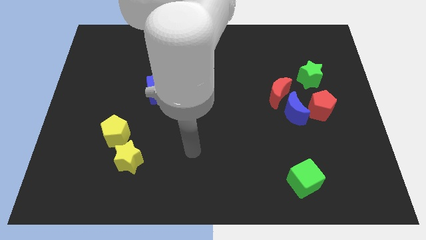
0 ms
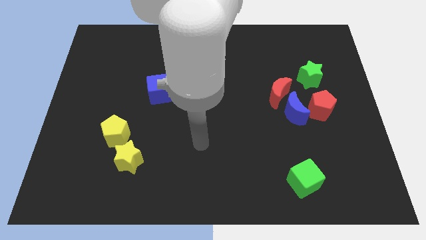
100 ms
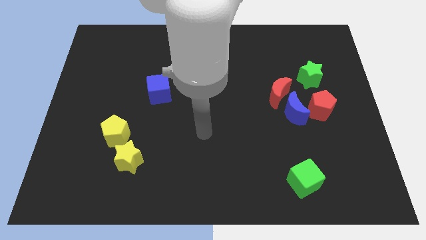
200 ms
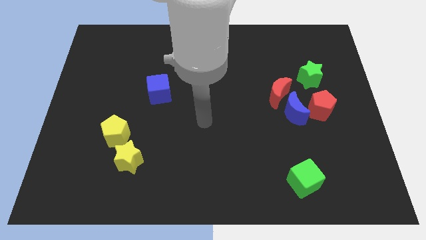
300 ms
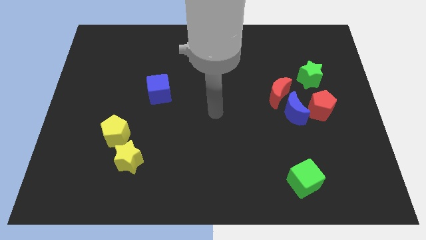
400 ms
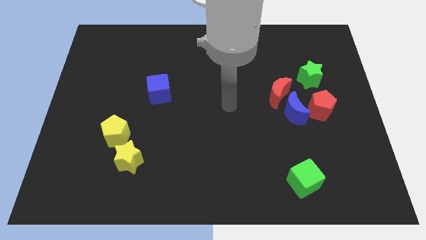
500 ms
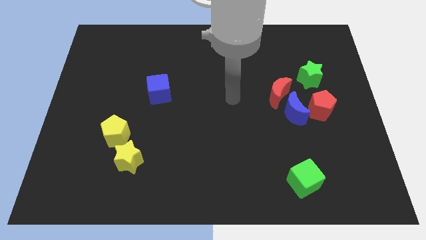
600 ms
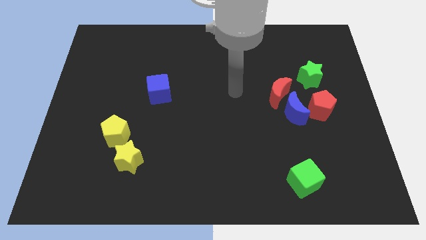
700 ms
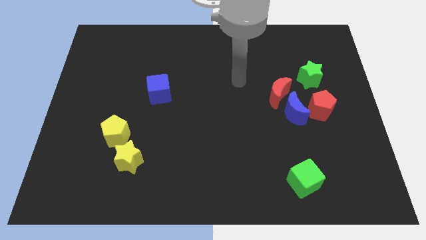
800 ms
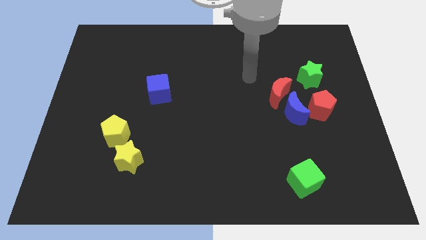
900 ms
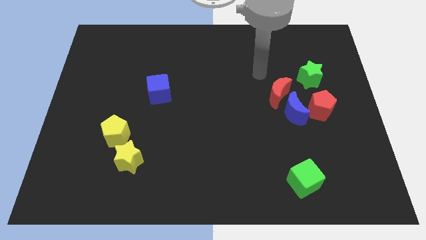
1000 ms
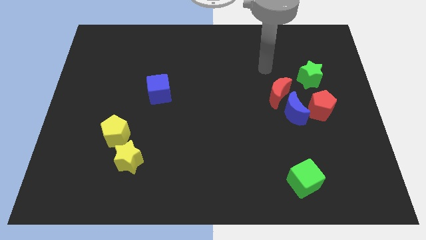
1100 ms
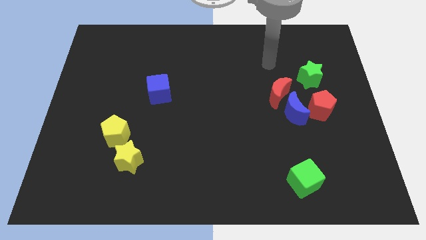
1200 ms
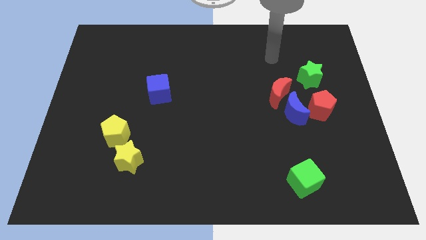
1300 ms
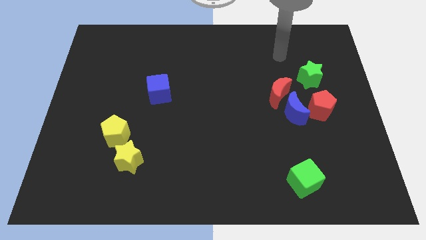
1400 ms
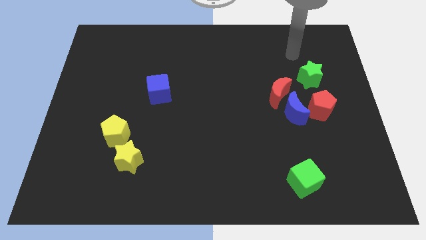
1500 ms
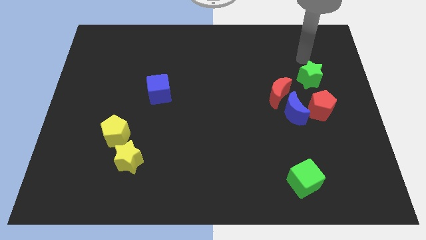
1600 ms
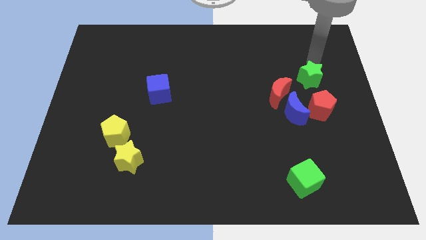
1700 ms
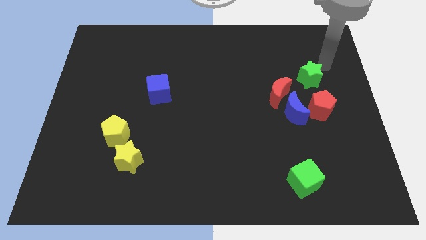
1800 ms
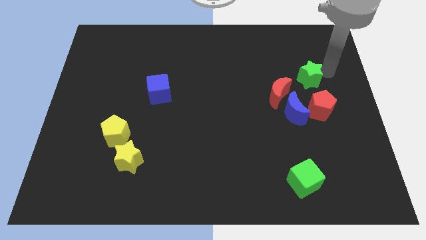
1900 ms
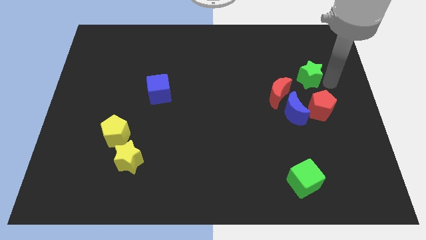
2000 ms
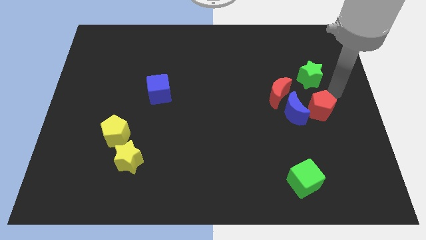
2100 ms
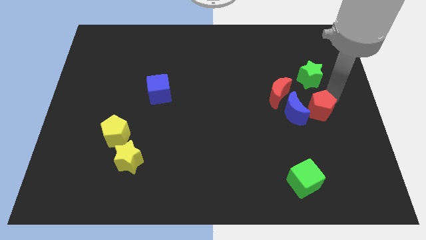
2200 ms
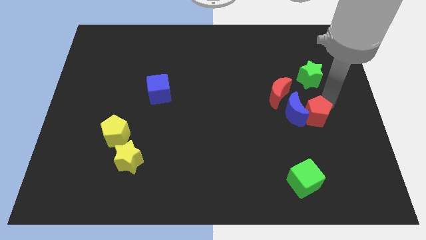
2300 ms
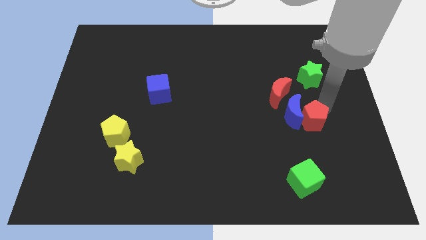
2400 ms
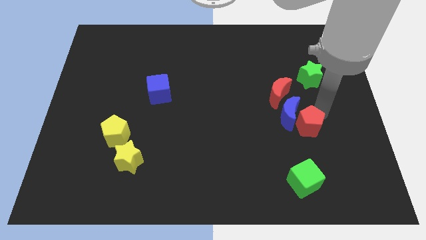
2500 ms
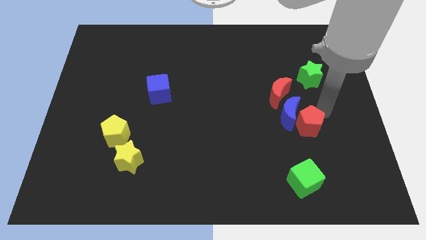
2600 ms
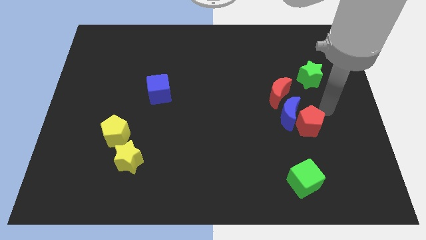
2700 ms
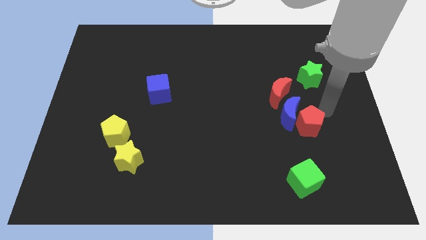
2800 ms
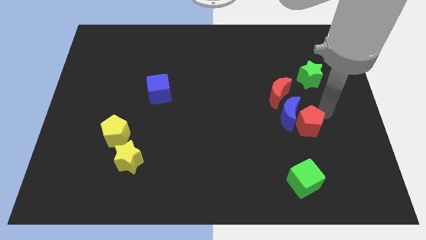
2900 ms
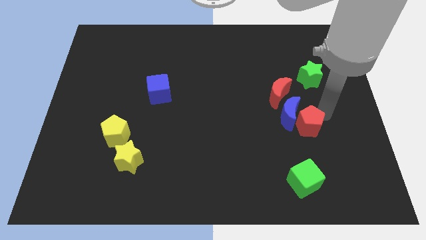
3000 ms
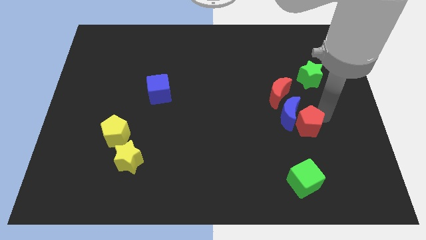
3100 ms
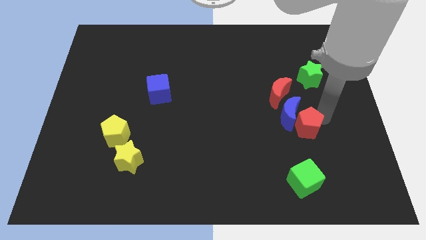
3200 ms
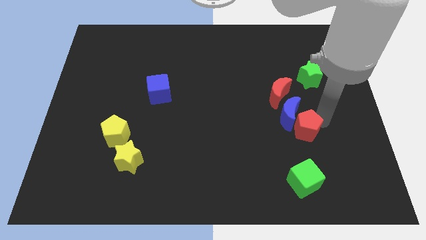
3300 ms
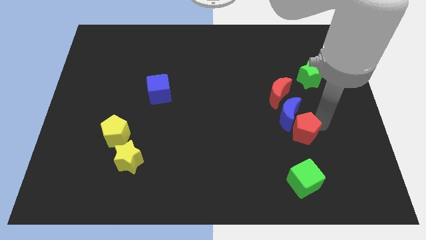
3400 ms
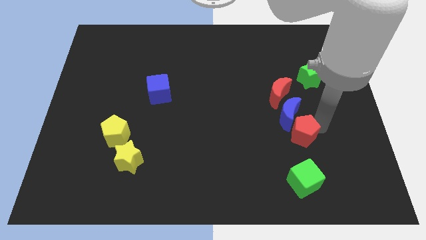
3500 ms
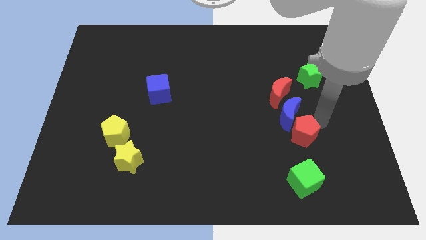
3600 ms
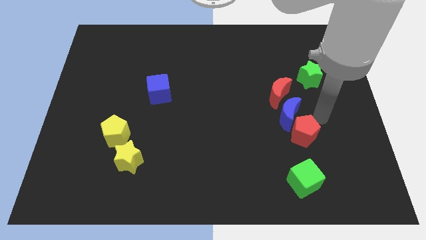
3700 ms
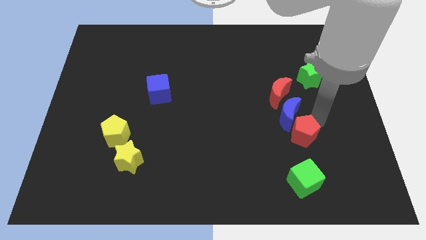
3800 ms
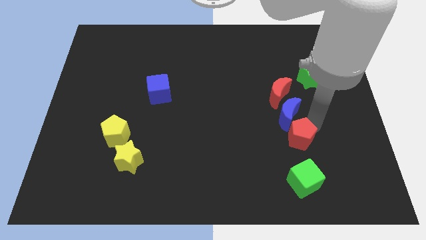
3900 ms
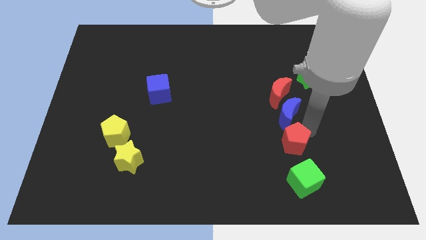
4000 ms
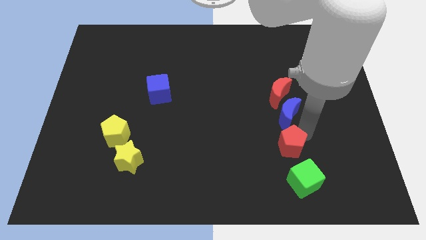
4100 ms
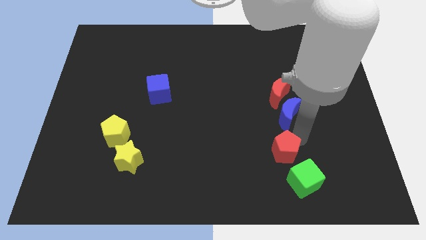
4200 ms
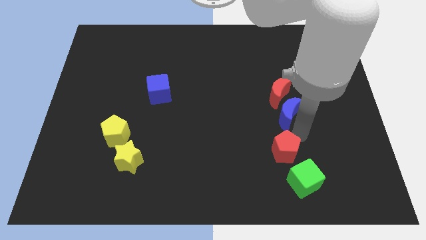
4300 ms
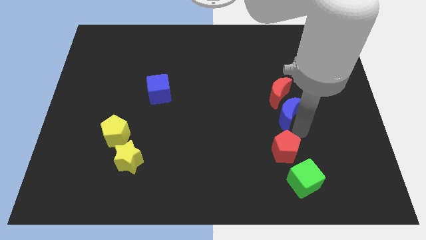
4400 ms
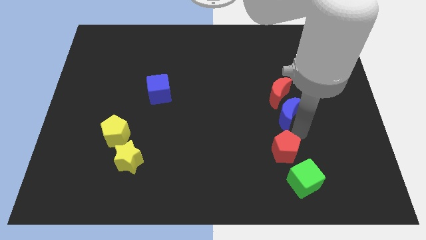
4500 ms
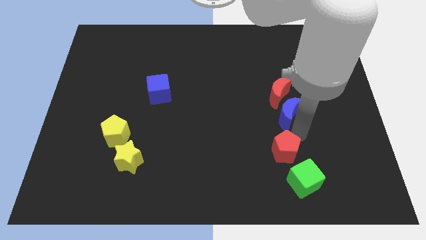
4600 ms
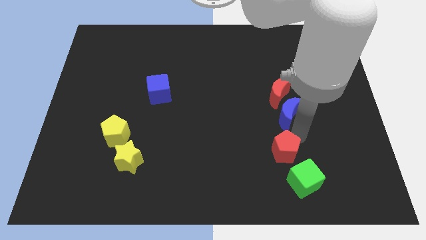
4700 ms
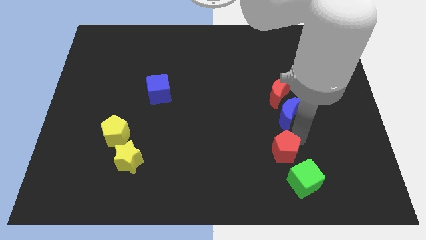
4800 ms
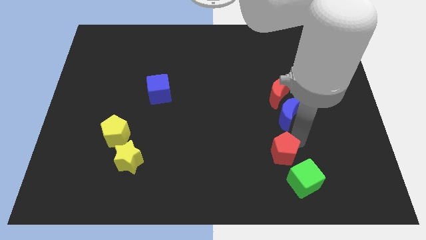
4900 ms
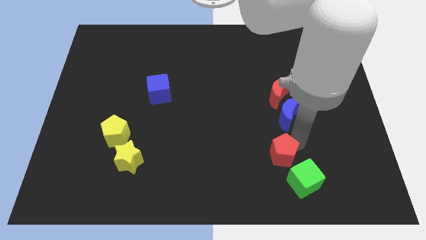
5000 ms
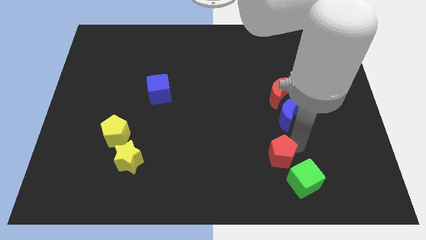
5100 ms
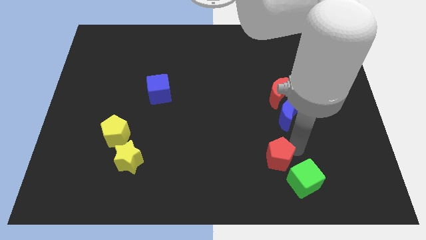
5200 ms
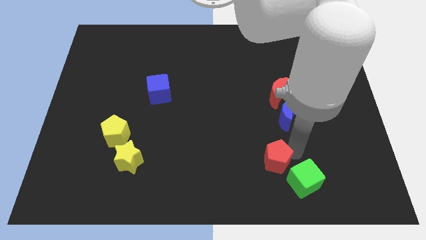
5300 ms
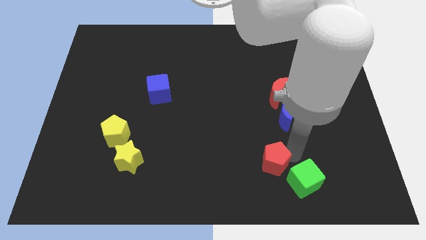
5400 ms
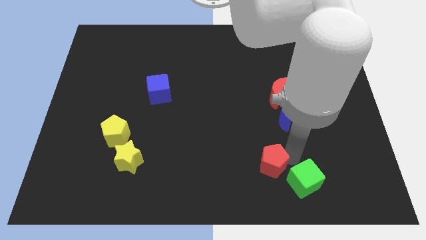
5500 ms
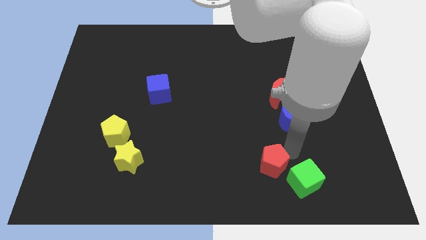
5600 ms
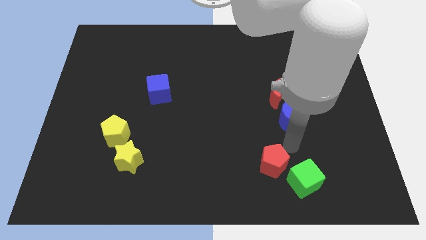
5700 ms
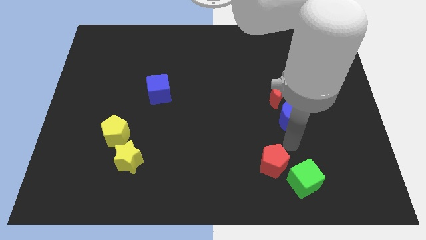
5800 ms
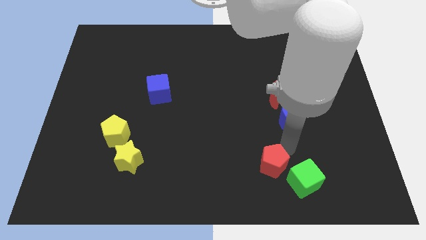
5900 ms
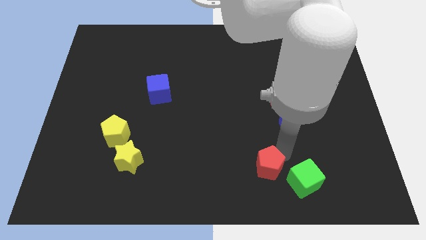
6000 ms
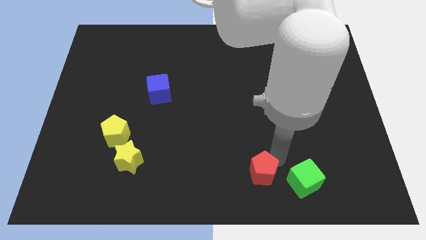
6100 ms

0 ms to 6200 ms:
move the red pentagon to the bottom side
